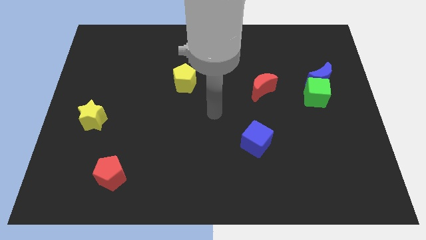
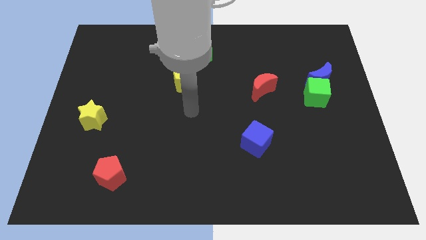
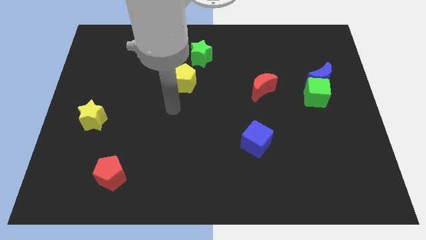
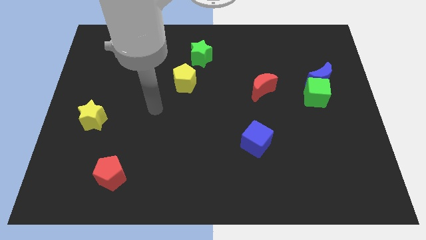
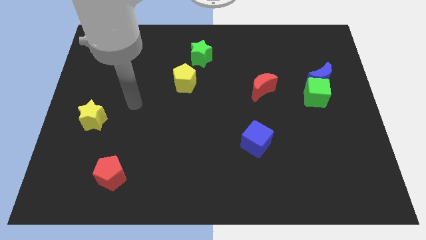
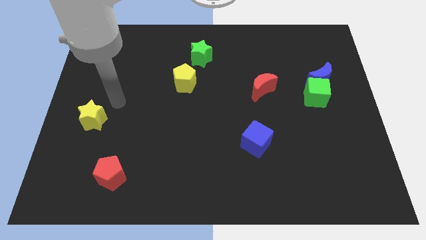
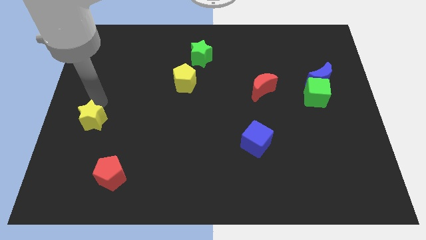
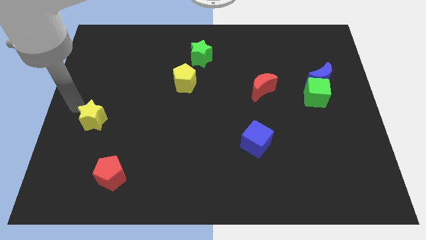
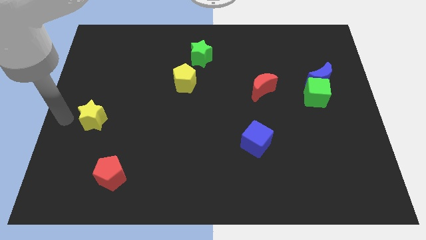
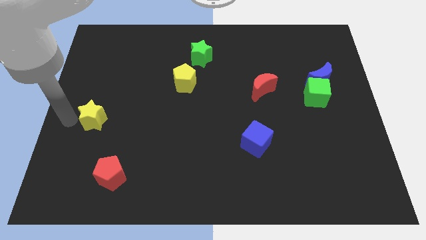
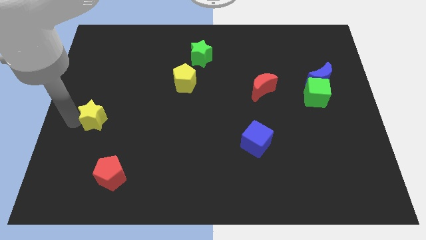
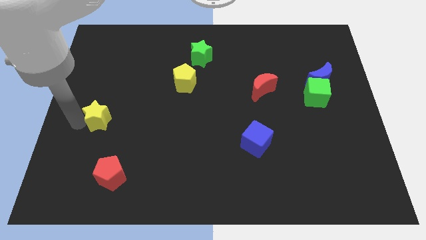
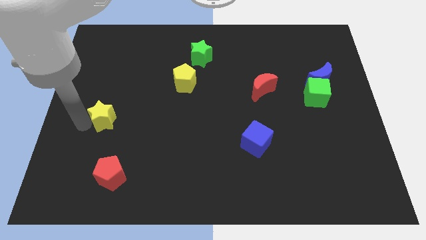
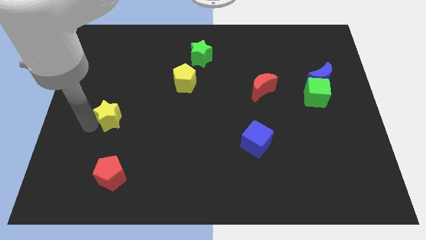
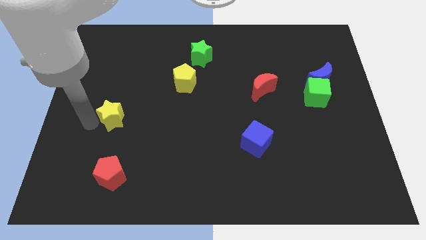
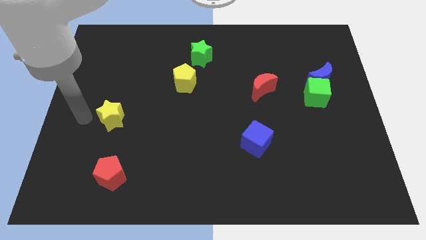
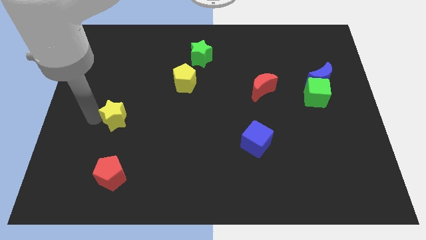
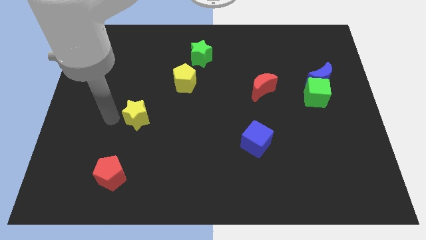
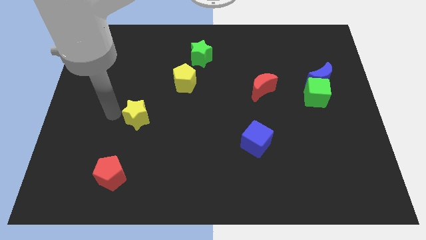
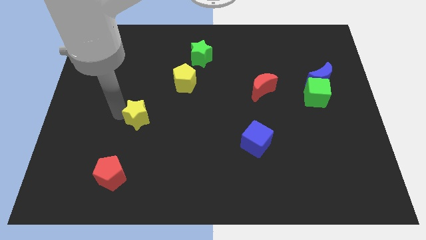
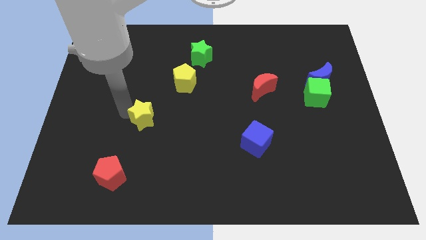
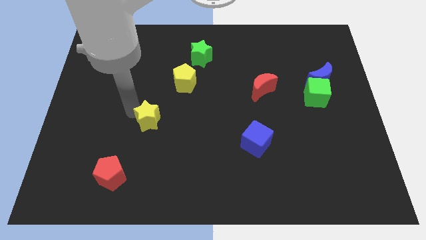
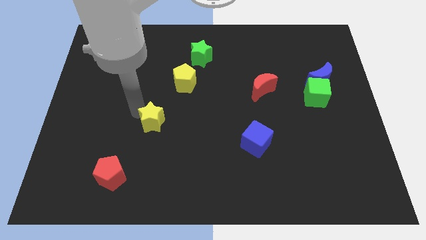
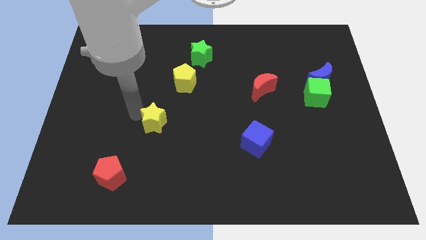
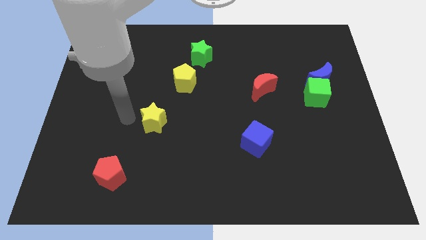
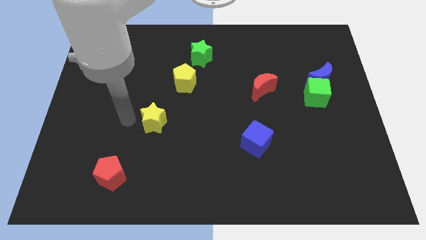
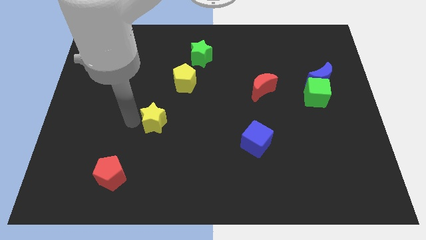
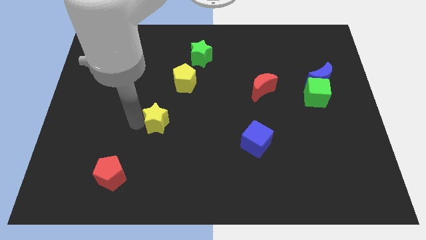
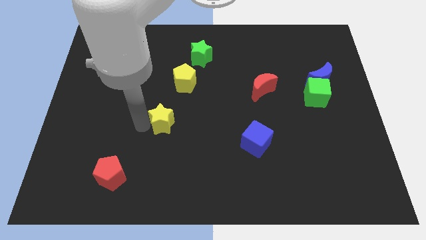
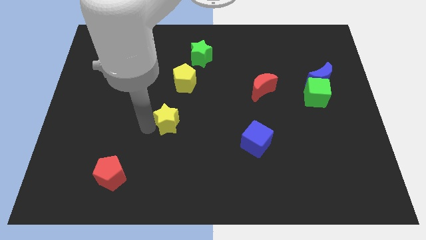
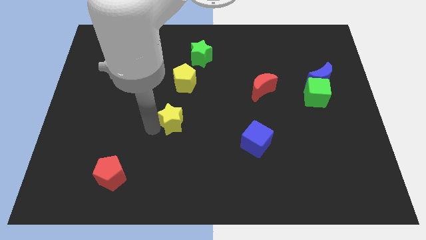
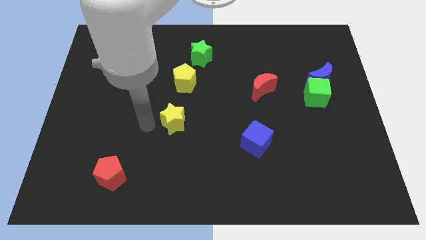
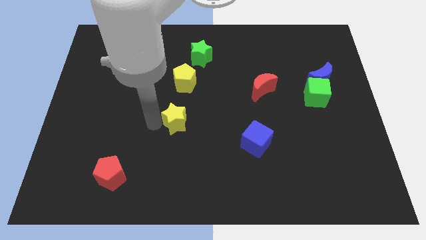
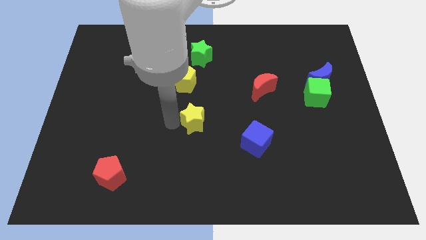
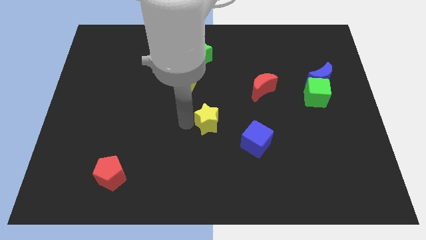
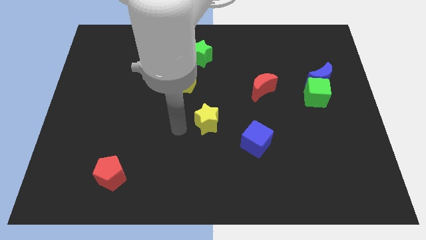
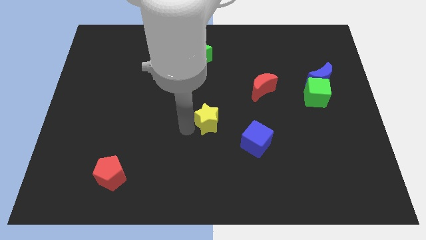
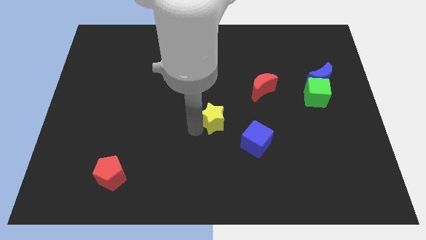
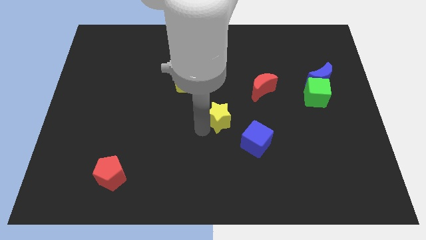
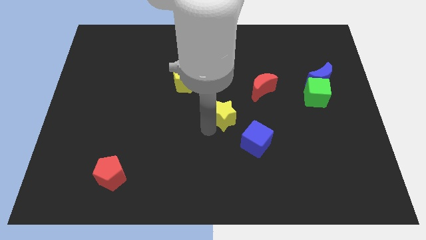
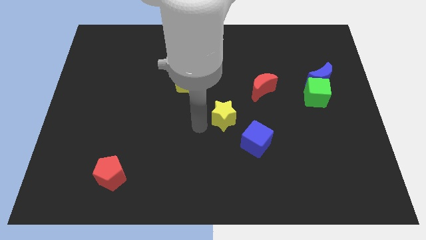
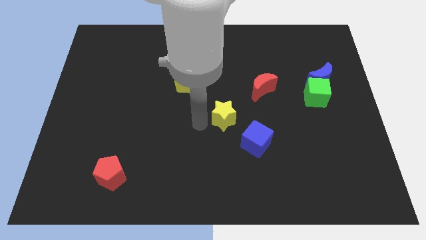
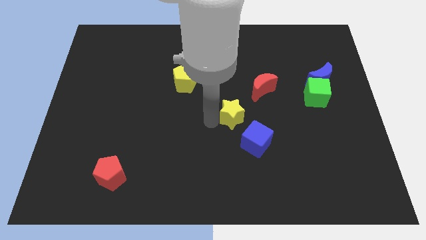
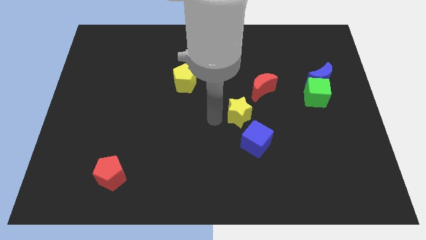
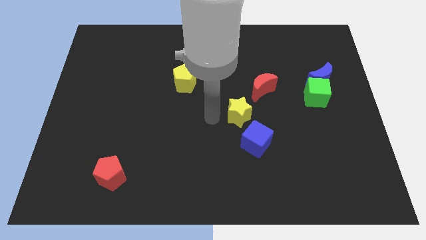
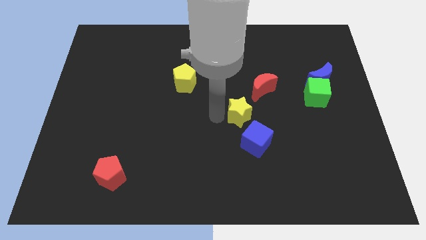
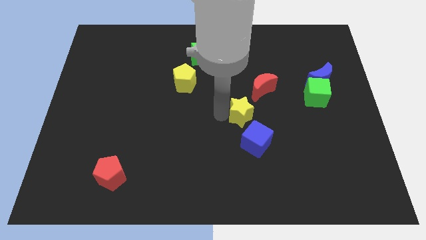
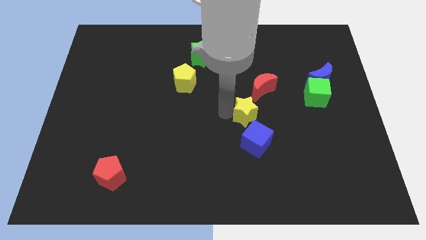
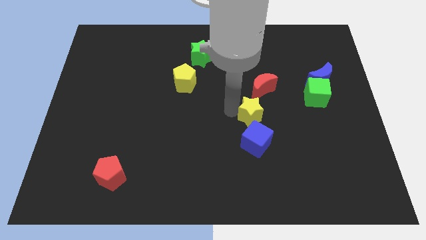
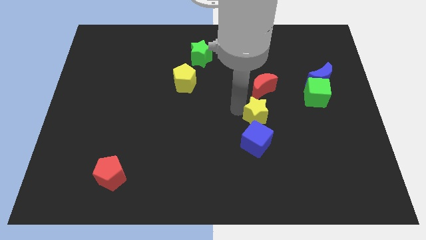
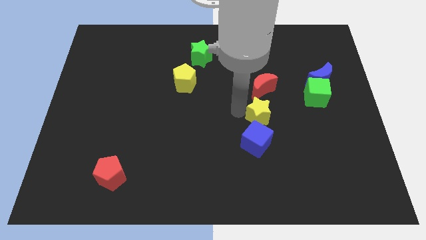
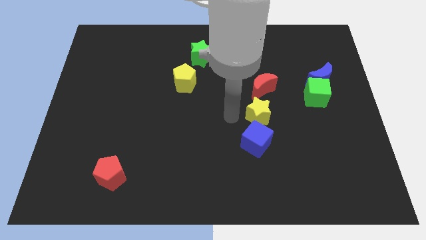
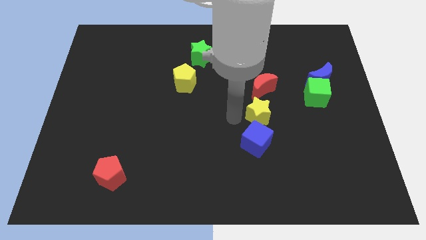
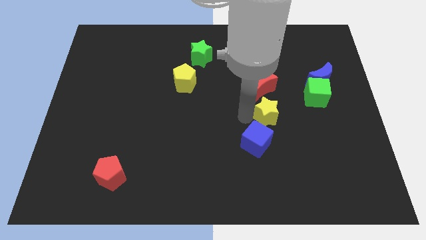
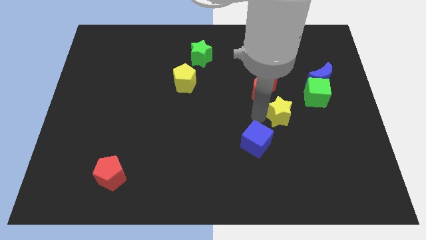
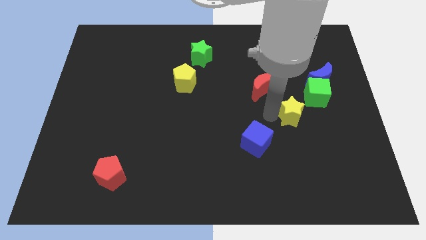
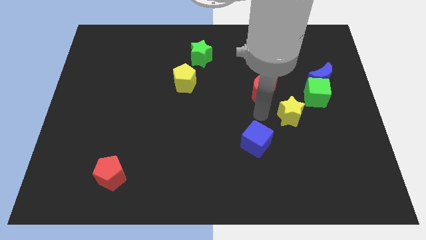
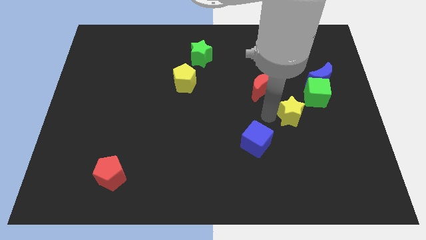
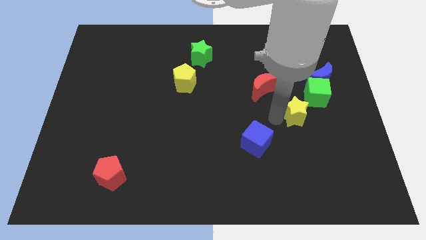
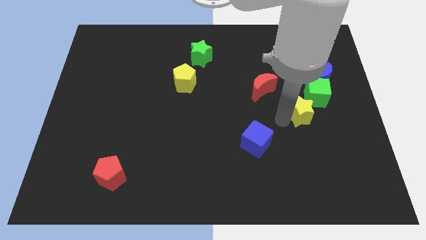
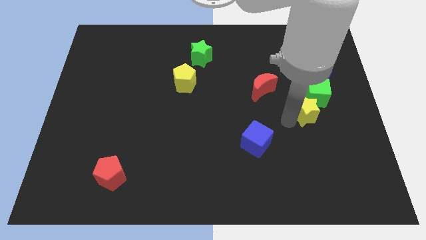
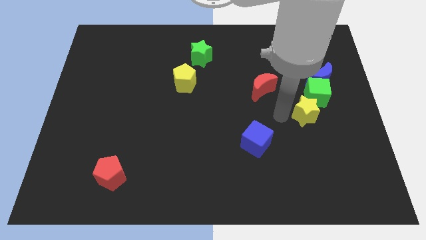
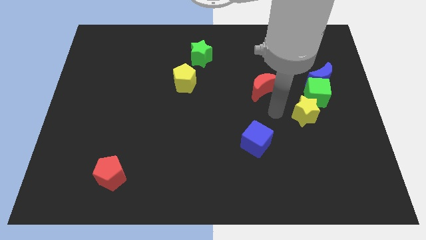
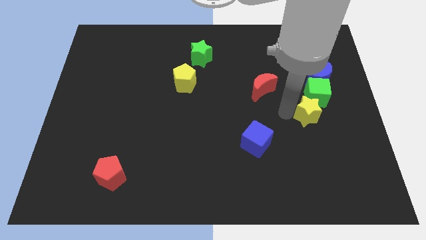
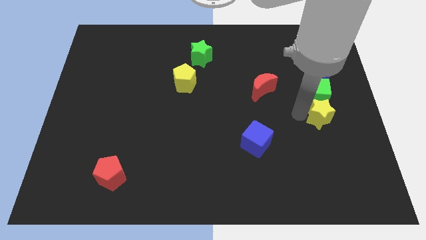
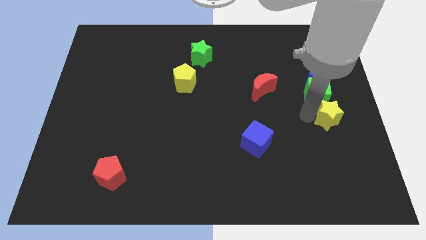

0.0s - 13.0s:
put the yellow star to the center right
